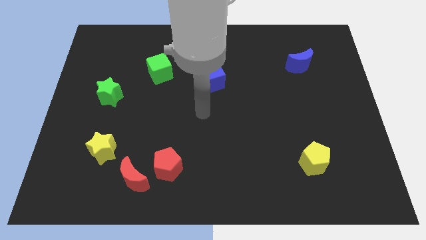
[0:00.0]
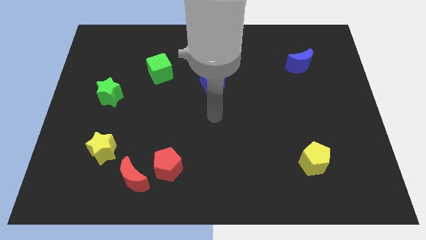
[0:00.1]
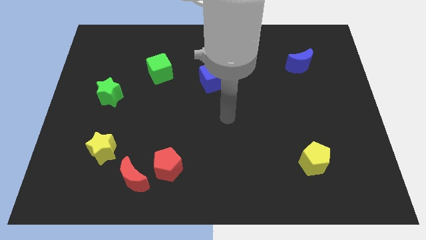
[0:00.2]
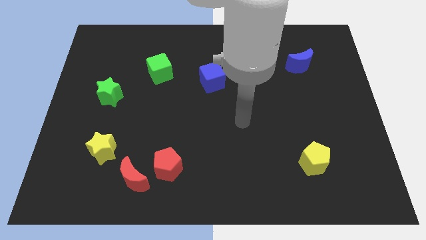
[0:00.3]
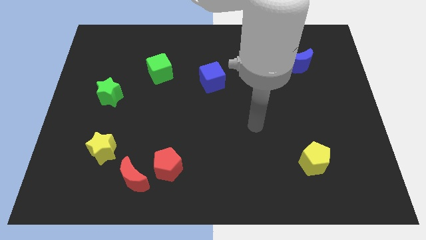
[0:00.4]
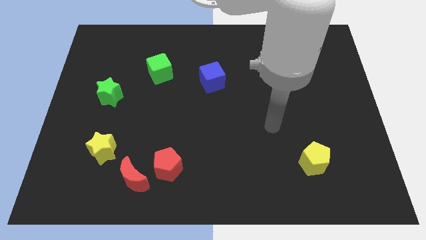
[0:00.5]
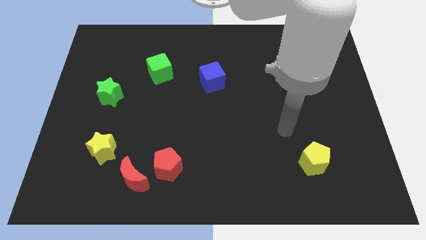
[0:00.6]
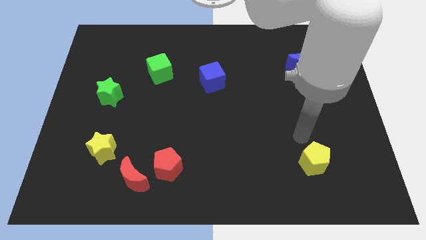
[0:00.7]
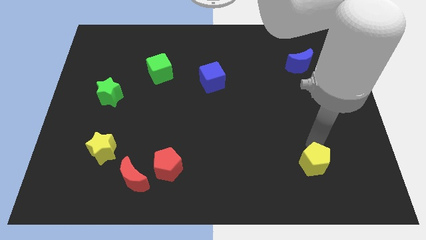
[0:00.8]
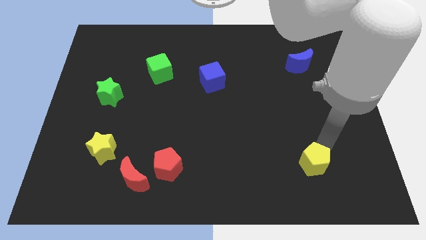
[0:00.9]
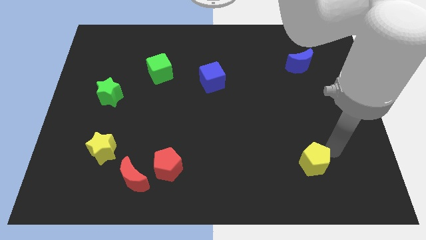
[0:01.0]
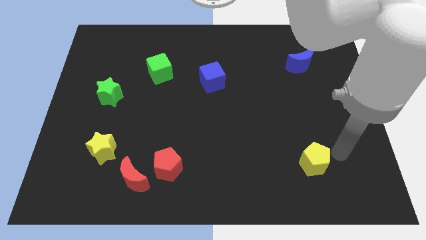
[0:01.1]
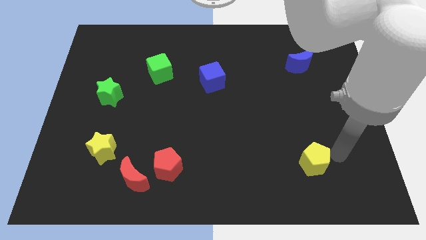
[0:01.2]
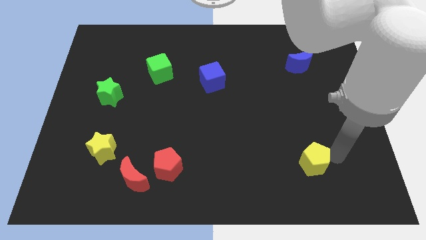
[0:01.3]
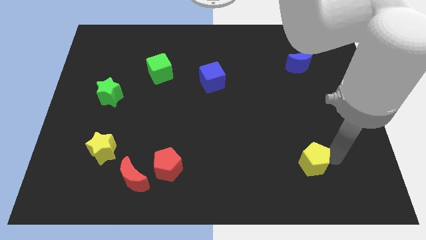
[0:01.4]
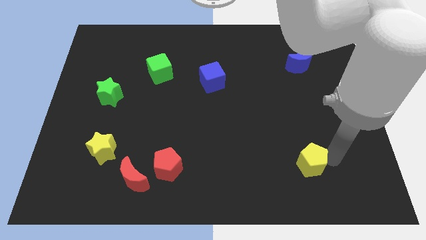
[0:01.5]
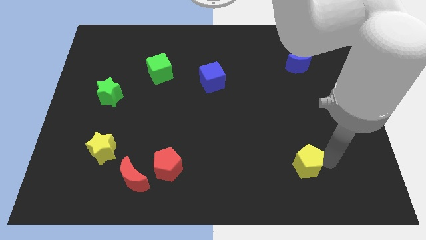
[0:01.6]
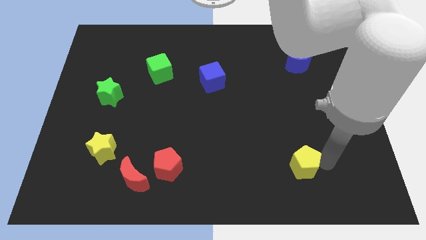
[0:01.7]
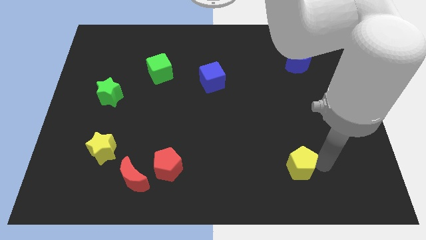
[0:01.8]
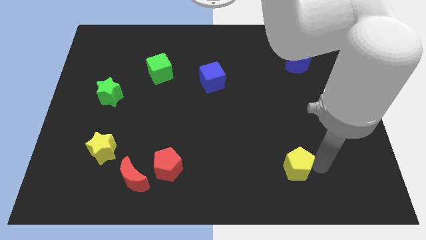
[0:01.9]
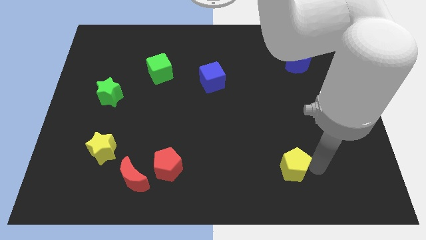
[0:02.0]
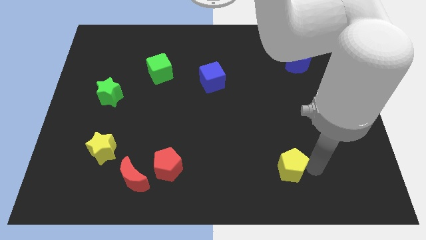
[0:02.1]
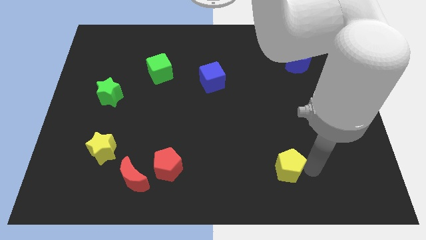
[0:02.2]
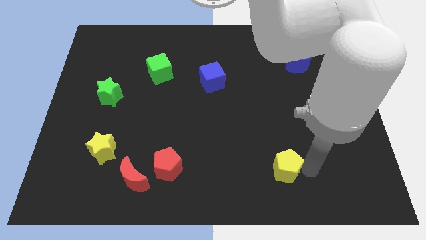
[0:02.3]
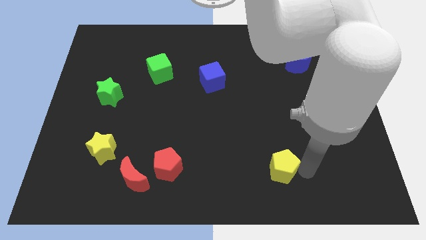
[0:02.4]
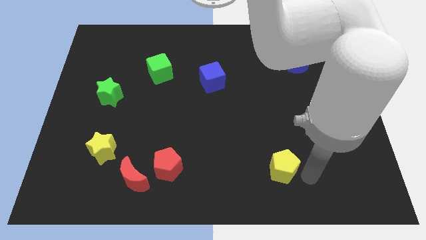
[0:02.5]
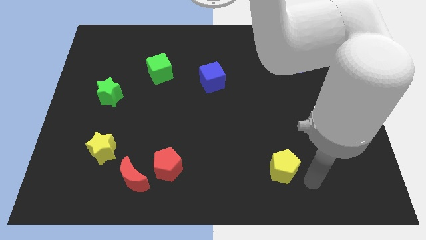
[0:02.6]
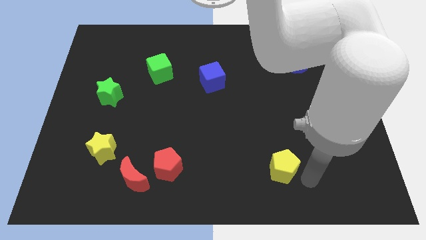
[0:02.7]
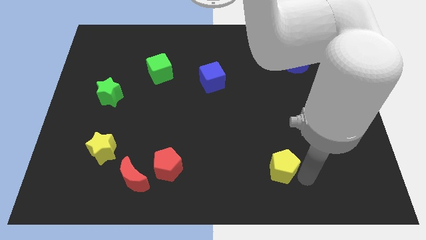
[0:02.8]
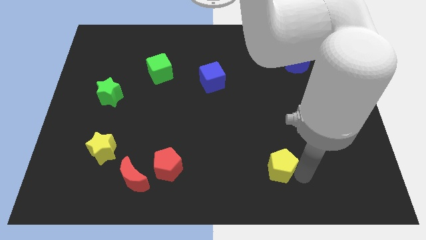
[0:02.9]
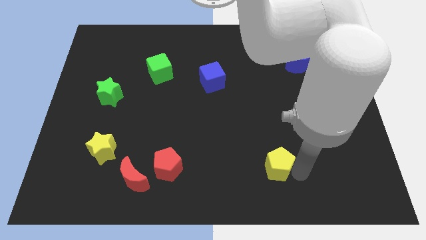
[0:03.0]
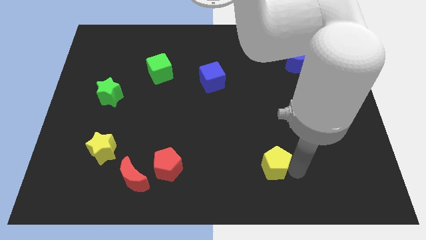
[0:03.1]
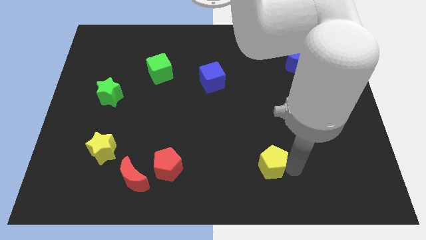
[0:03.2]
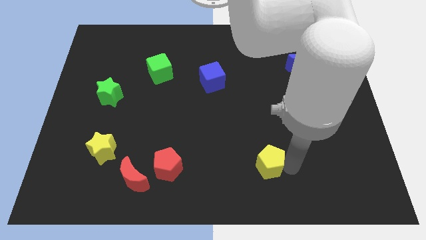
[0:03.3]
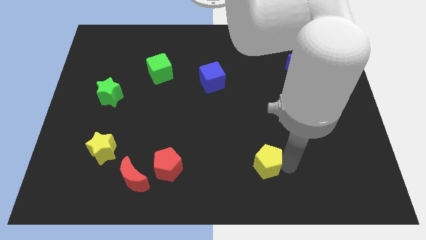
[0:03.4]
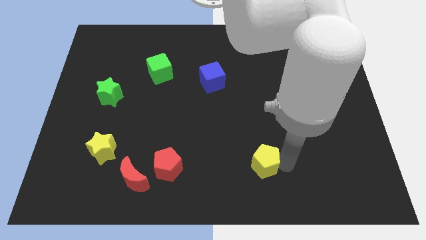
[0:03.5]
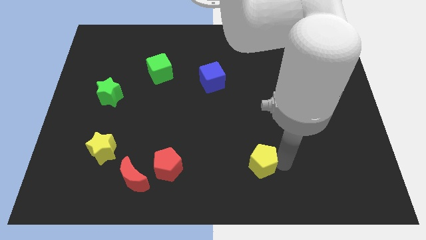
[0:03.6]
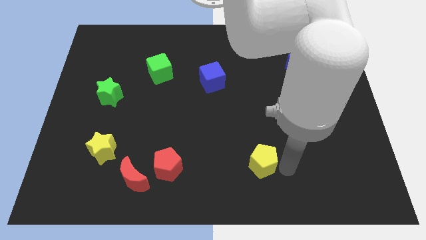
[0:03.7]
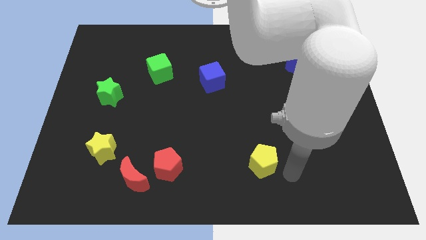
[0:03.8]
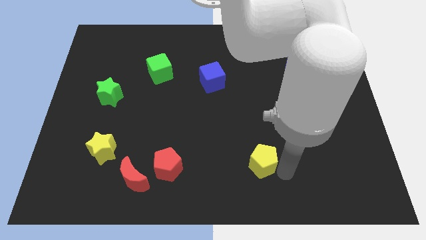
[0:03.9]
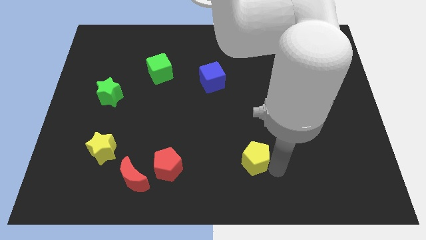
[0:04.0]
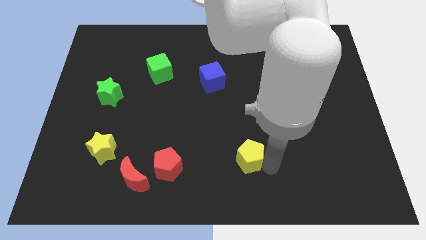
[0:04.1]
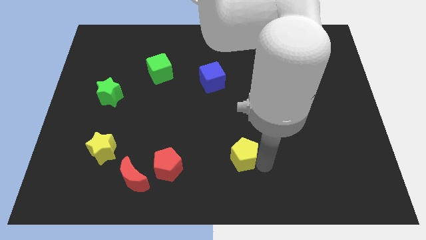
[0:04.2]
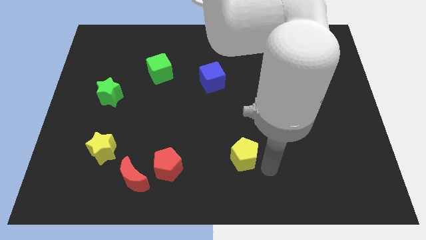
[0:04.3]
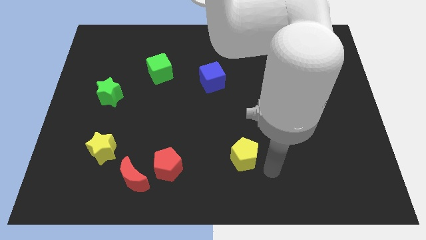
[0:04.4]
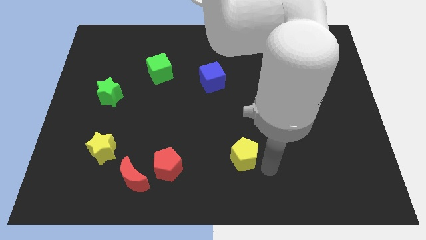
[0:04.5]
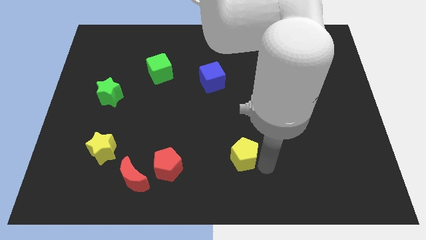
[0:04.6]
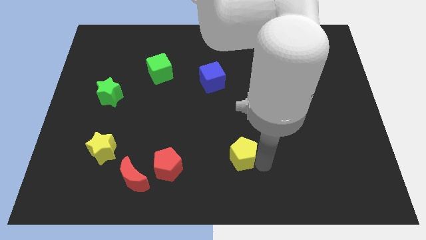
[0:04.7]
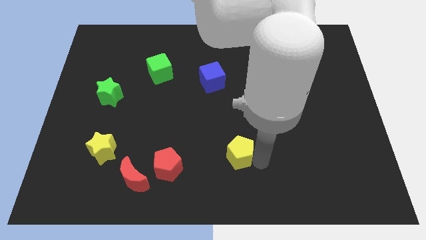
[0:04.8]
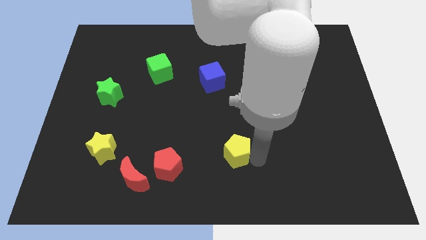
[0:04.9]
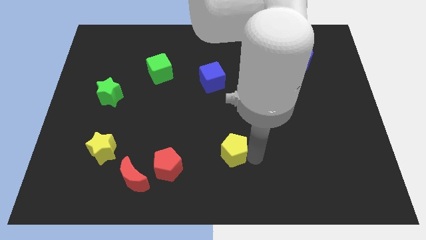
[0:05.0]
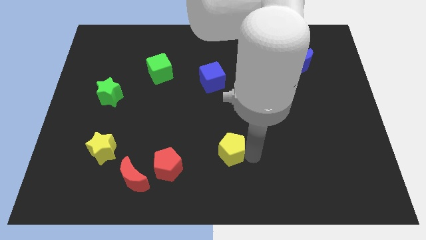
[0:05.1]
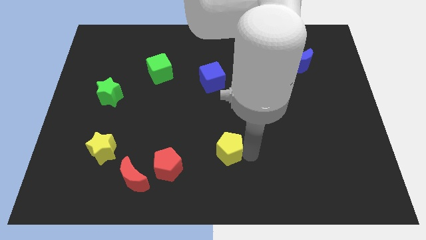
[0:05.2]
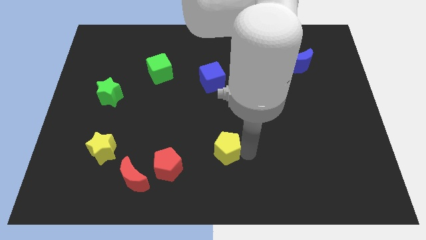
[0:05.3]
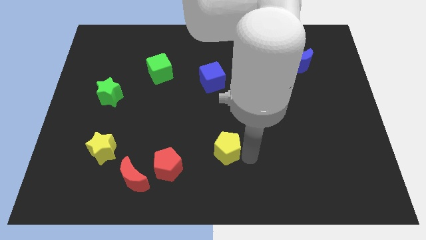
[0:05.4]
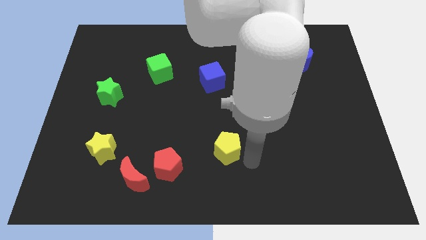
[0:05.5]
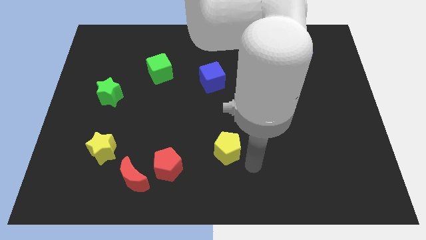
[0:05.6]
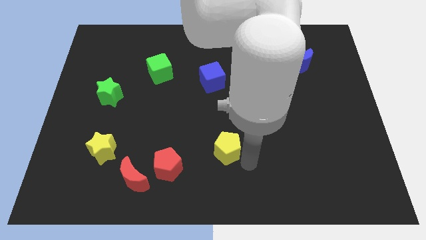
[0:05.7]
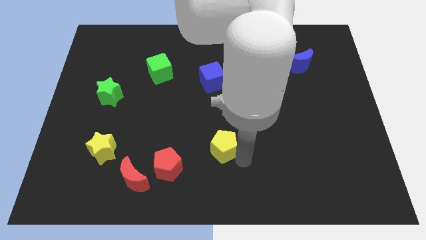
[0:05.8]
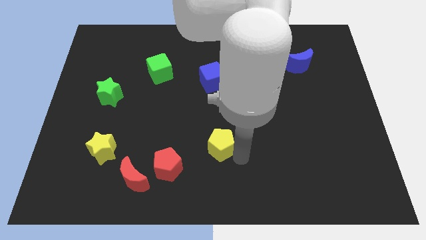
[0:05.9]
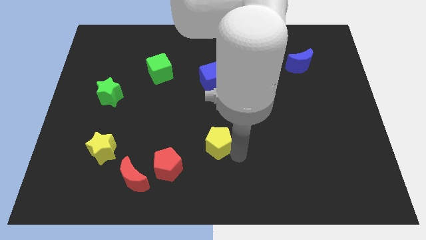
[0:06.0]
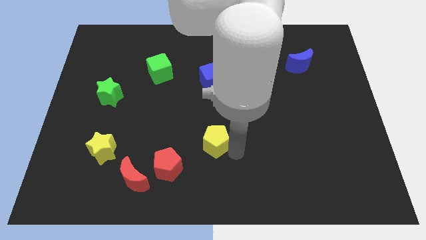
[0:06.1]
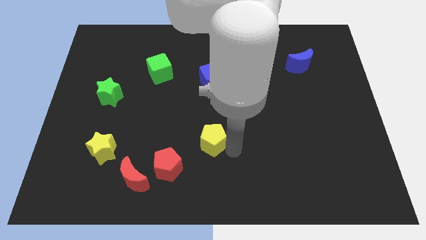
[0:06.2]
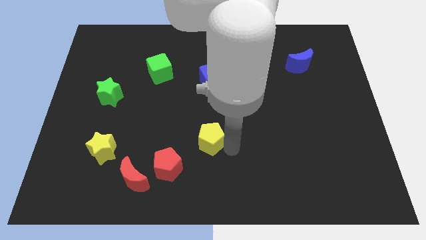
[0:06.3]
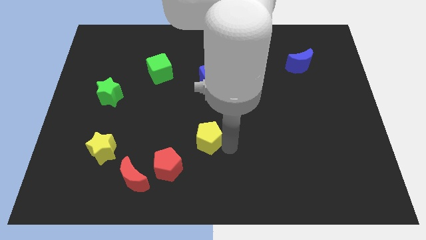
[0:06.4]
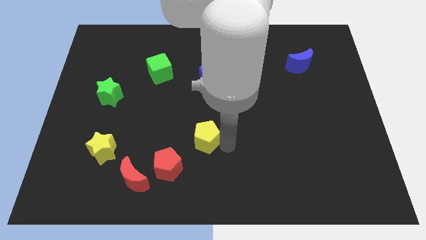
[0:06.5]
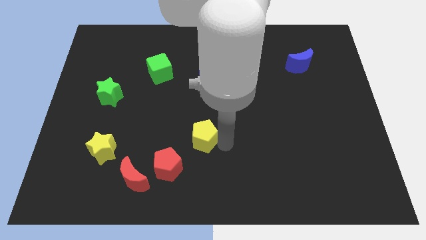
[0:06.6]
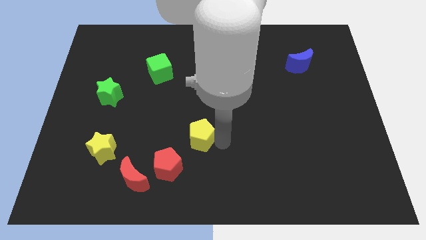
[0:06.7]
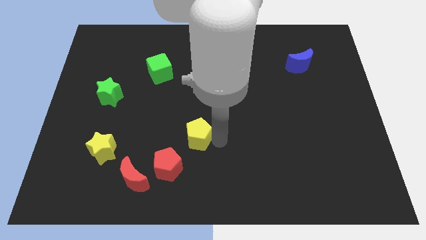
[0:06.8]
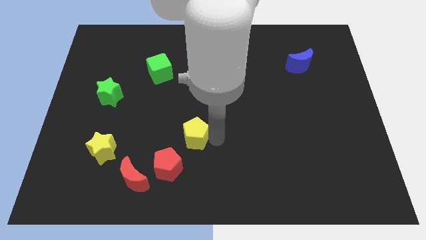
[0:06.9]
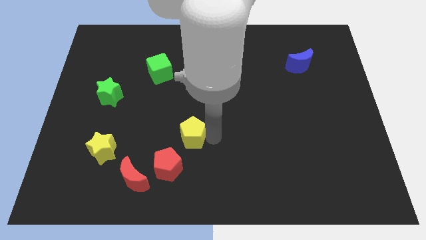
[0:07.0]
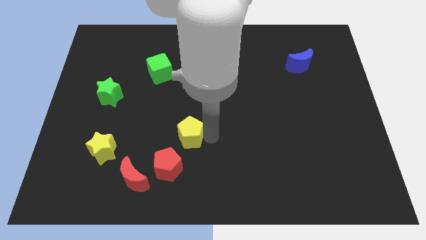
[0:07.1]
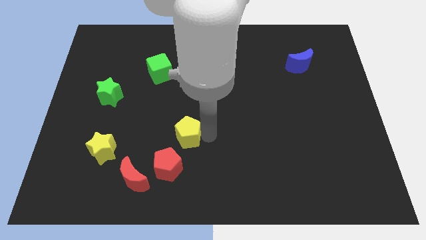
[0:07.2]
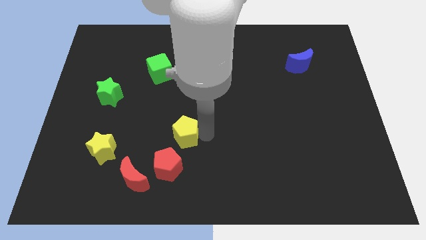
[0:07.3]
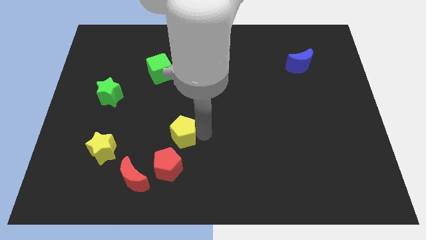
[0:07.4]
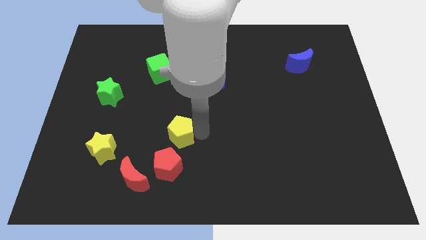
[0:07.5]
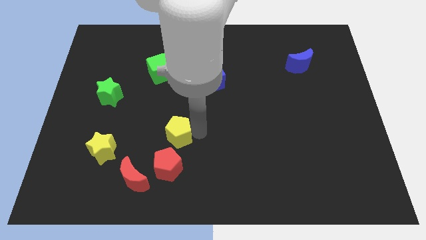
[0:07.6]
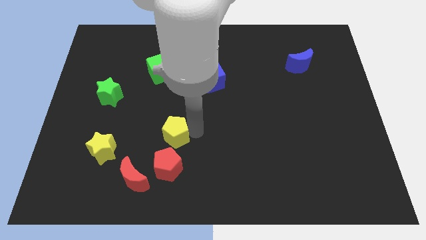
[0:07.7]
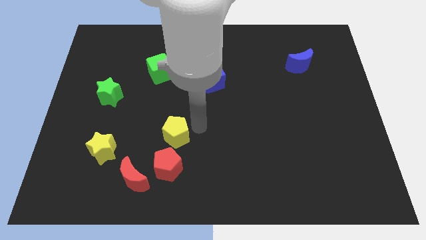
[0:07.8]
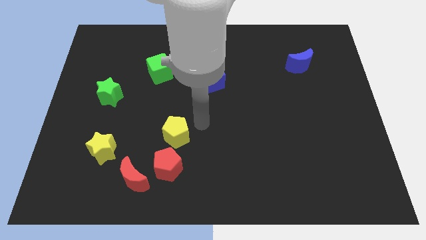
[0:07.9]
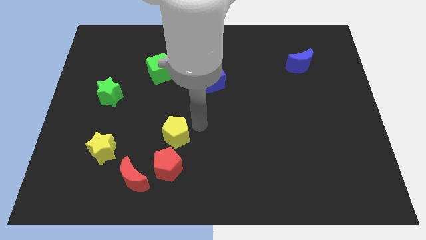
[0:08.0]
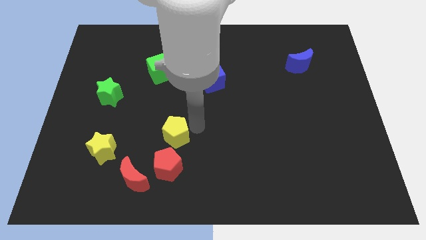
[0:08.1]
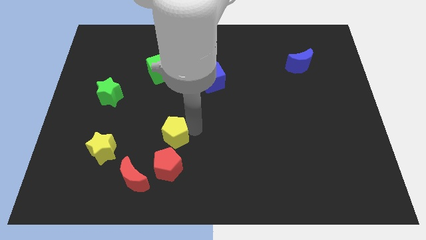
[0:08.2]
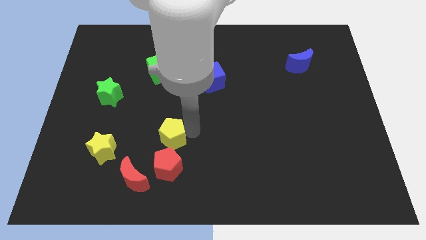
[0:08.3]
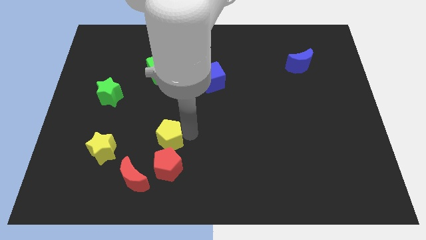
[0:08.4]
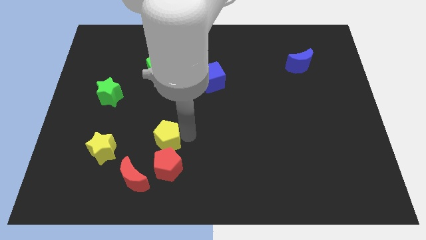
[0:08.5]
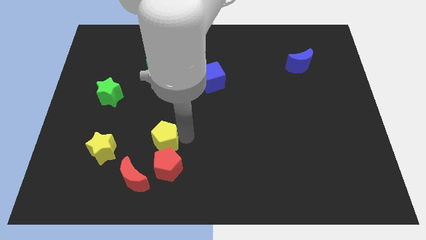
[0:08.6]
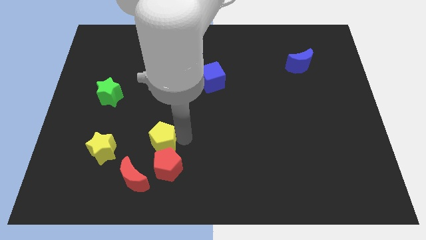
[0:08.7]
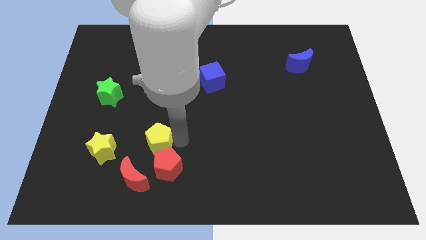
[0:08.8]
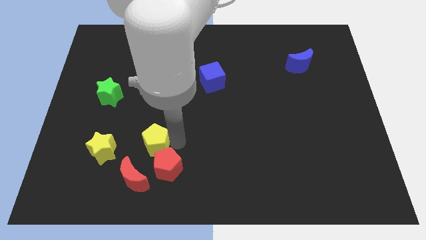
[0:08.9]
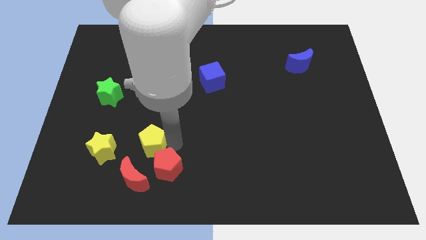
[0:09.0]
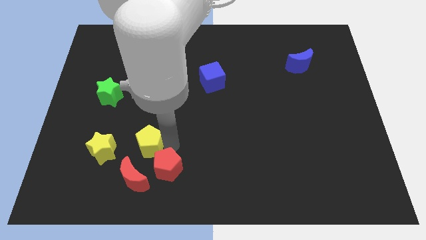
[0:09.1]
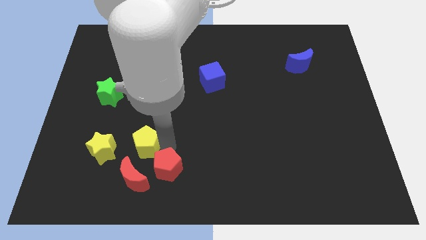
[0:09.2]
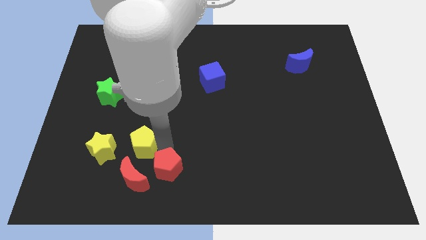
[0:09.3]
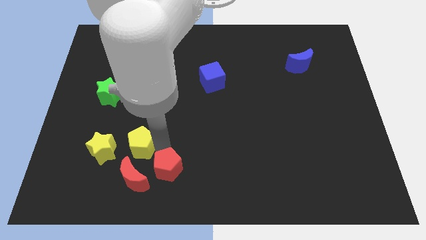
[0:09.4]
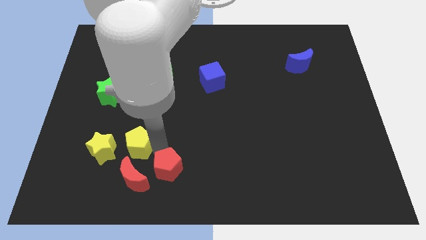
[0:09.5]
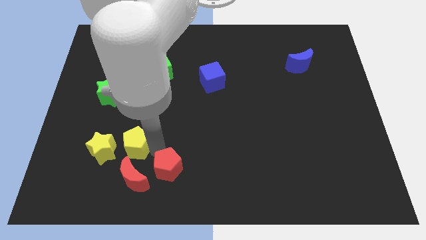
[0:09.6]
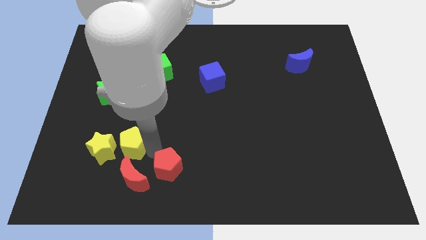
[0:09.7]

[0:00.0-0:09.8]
slide the yellow pentagon towards the yellow star
